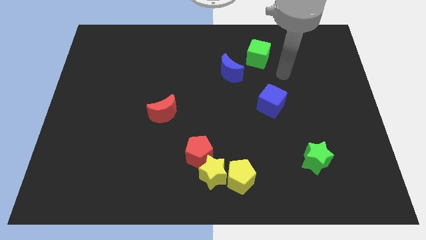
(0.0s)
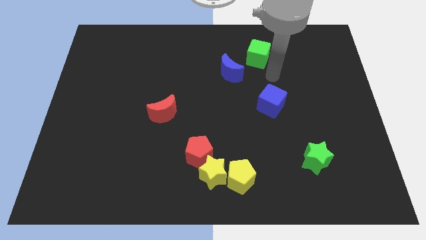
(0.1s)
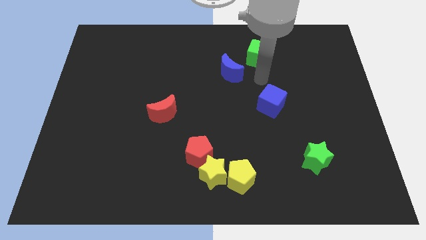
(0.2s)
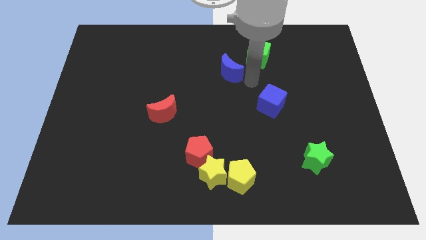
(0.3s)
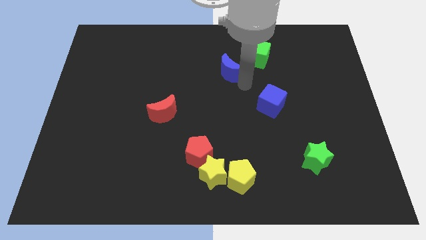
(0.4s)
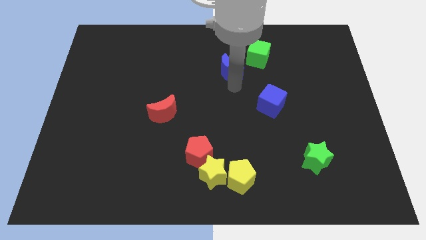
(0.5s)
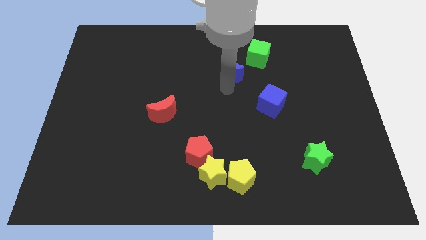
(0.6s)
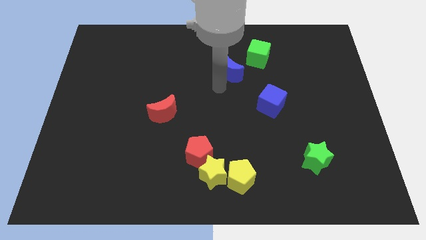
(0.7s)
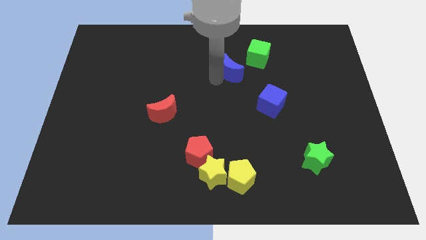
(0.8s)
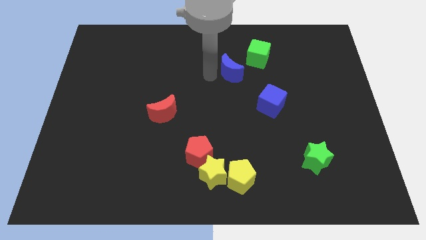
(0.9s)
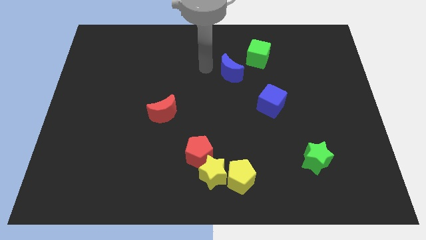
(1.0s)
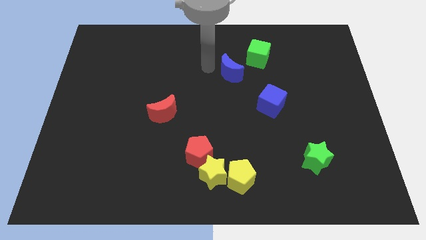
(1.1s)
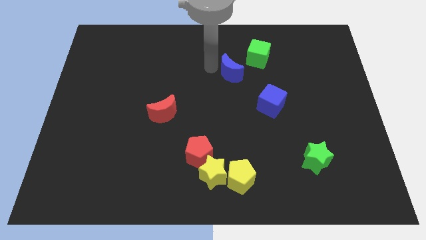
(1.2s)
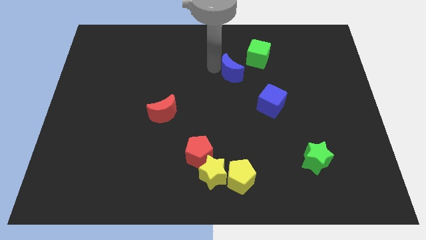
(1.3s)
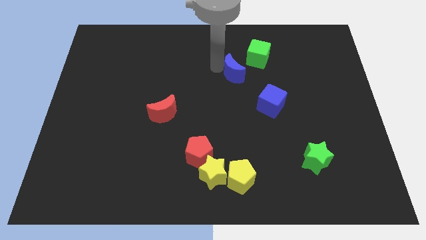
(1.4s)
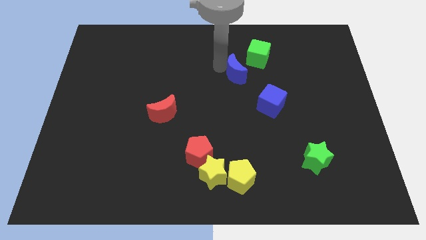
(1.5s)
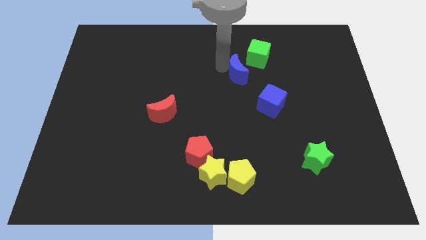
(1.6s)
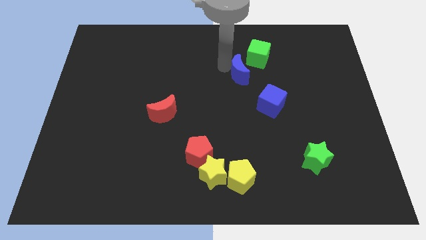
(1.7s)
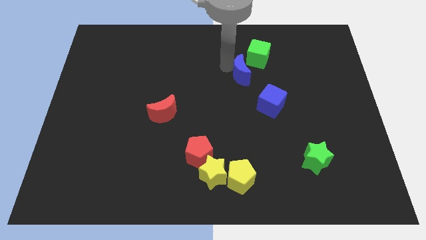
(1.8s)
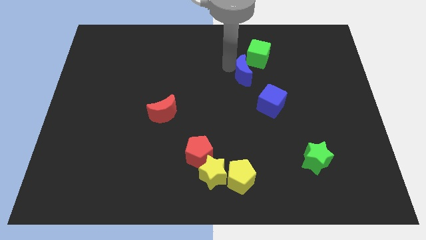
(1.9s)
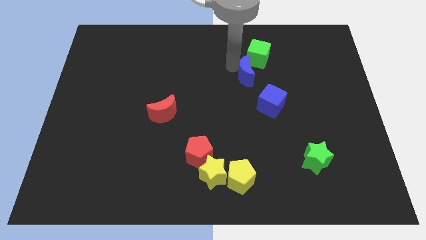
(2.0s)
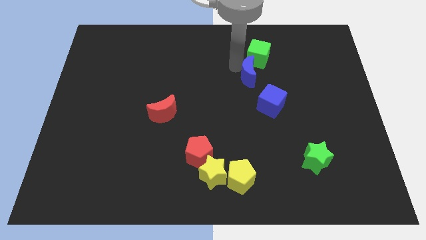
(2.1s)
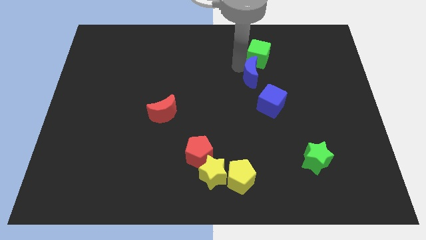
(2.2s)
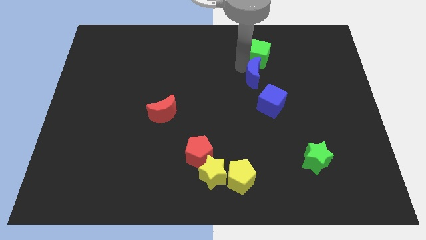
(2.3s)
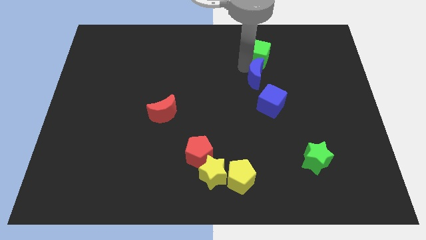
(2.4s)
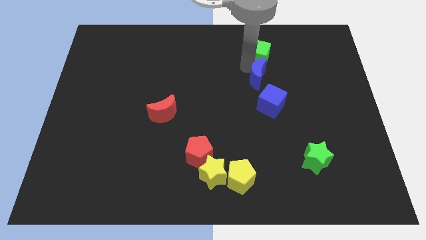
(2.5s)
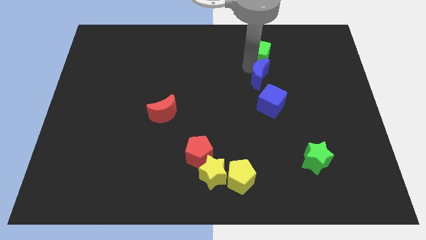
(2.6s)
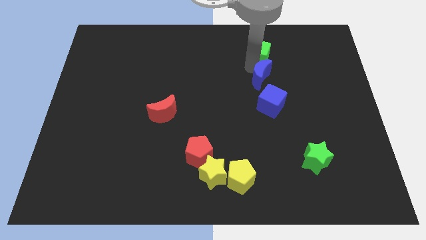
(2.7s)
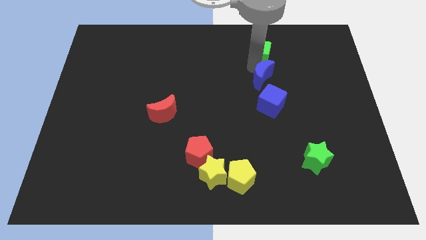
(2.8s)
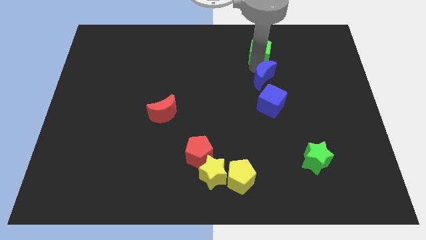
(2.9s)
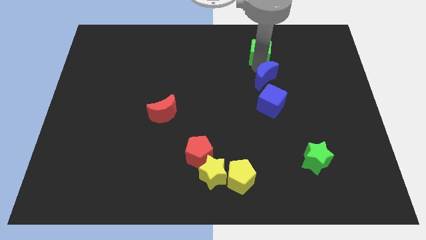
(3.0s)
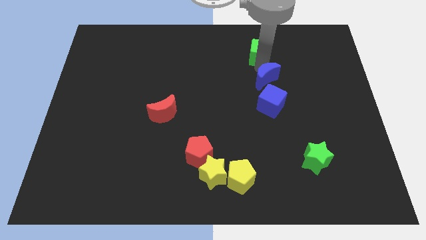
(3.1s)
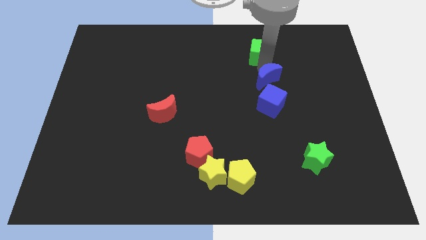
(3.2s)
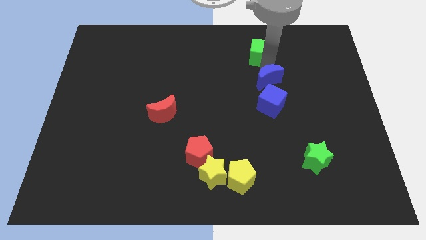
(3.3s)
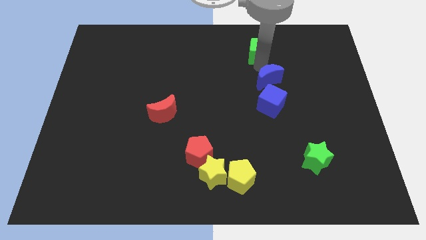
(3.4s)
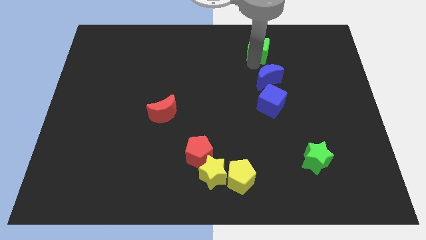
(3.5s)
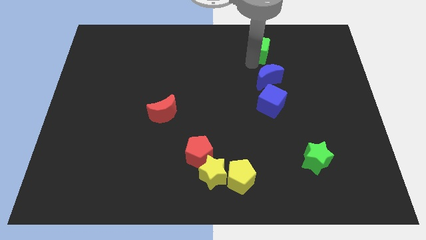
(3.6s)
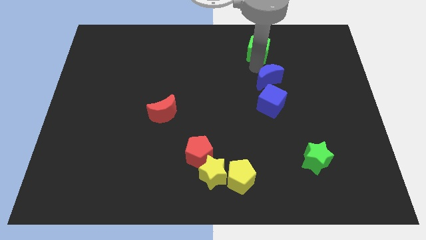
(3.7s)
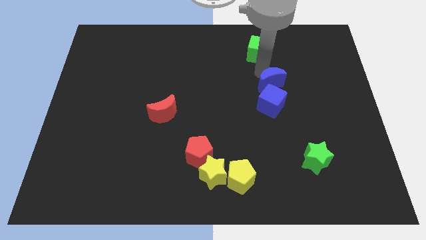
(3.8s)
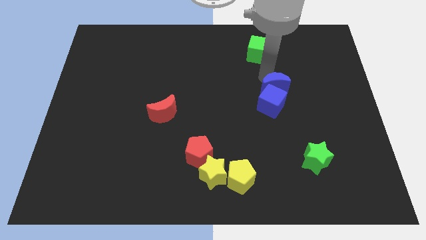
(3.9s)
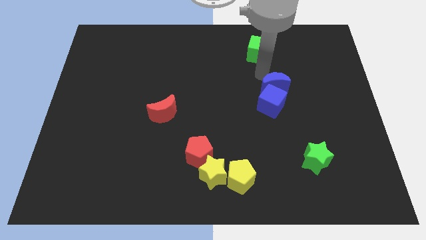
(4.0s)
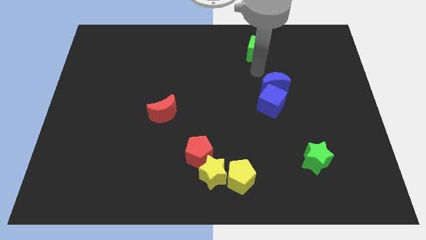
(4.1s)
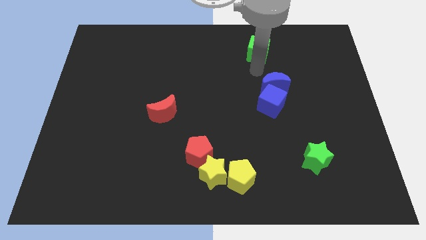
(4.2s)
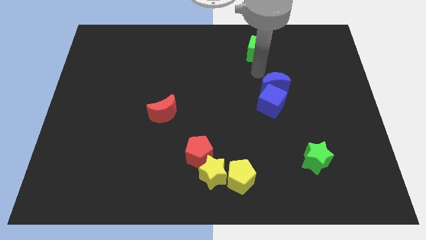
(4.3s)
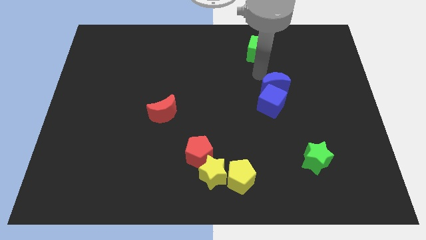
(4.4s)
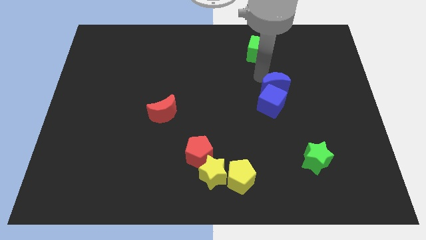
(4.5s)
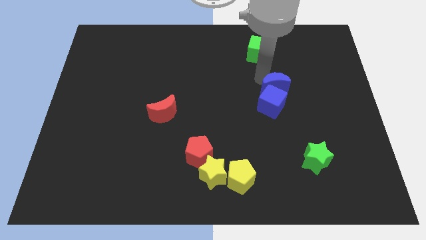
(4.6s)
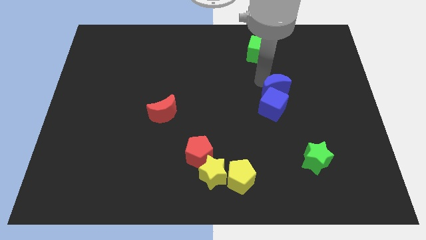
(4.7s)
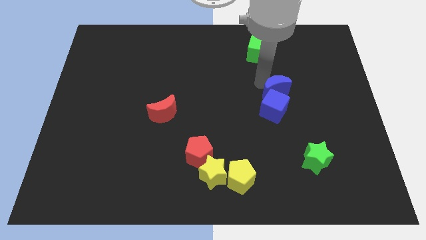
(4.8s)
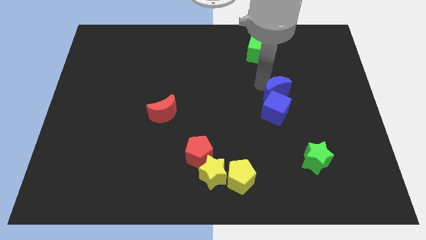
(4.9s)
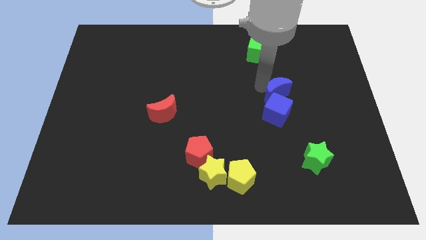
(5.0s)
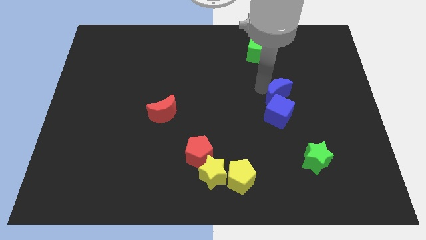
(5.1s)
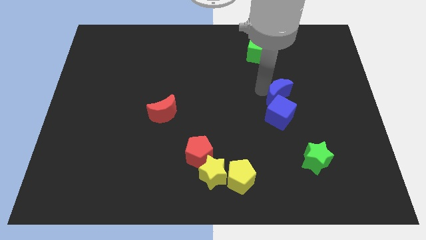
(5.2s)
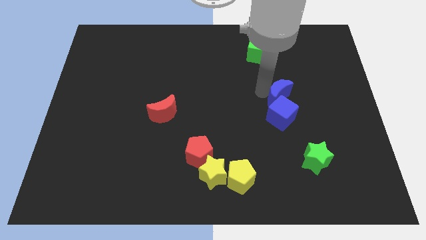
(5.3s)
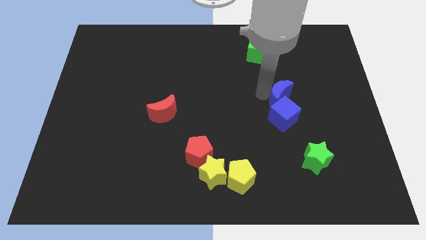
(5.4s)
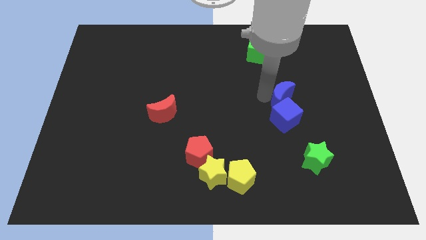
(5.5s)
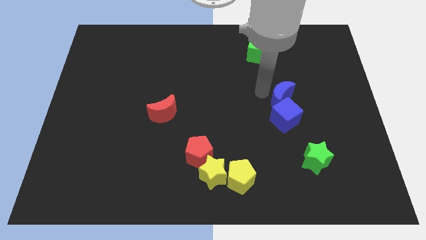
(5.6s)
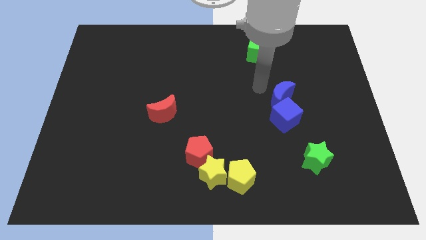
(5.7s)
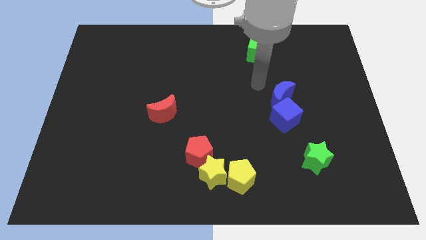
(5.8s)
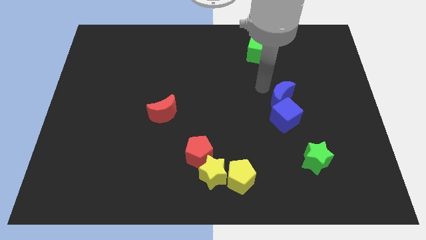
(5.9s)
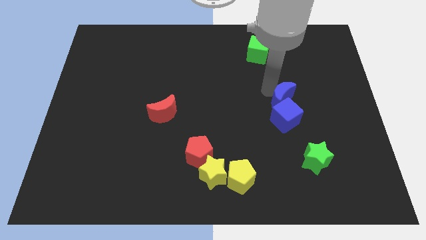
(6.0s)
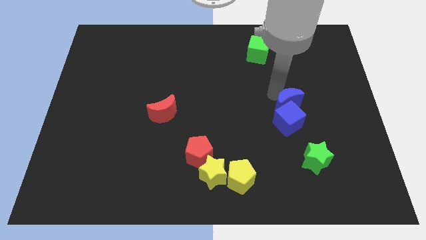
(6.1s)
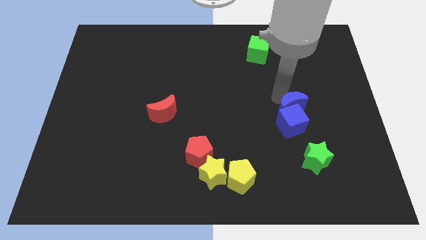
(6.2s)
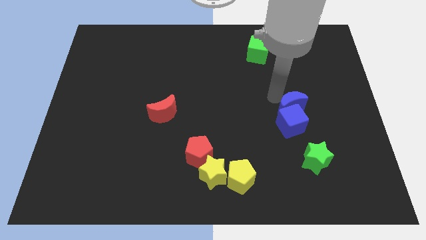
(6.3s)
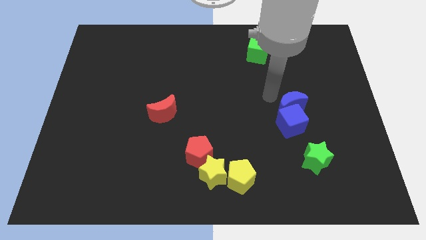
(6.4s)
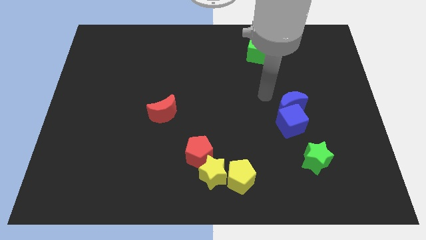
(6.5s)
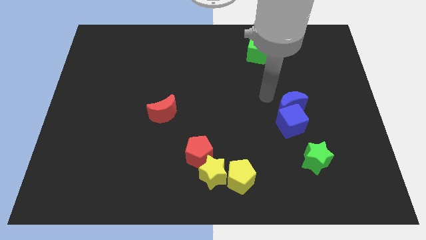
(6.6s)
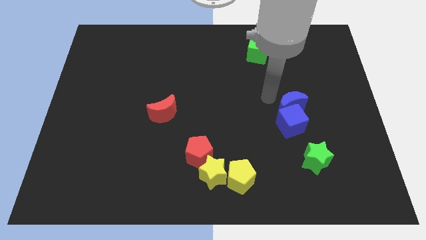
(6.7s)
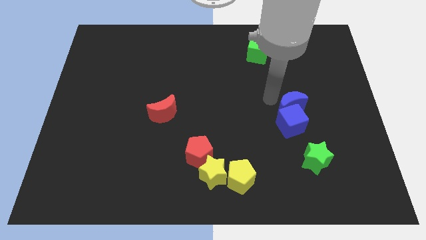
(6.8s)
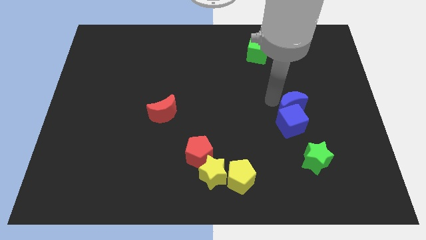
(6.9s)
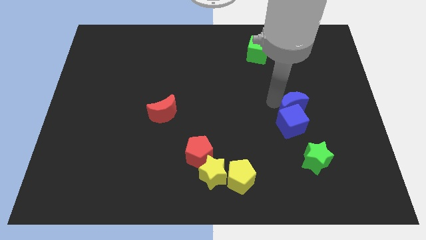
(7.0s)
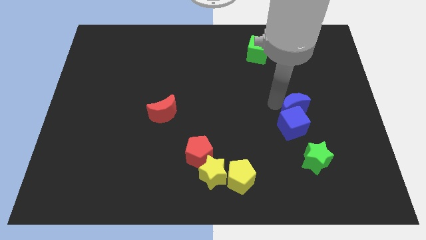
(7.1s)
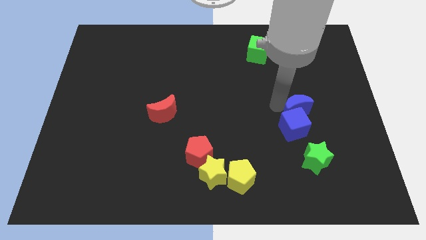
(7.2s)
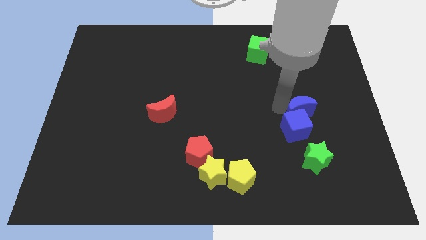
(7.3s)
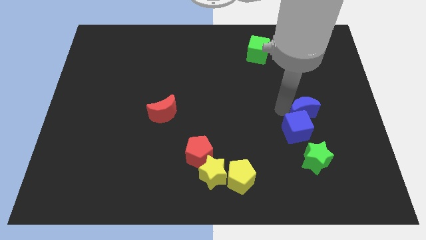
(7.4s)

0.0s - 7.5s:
slide the blue moon downwards and to the right

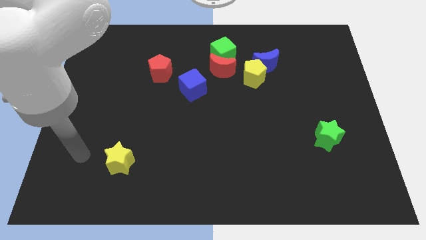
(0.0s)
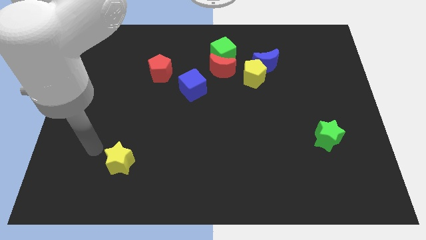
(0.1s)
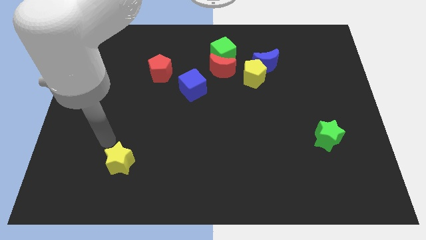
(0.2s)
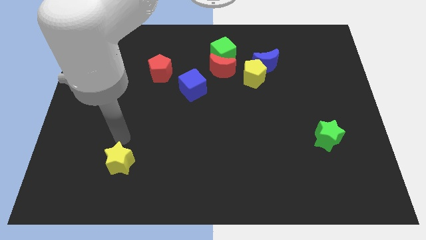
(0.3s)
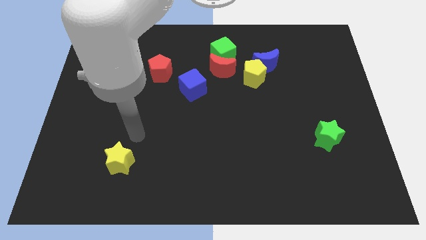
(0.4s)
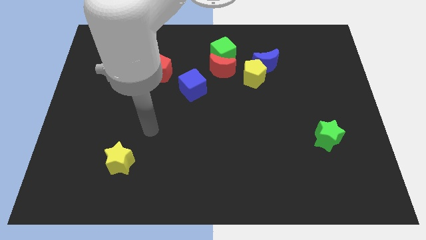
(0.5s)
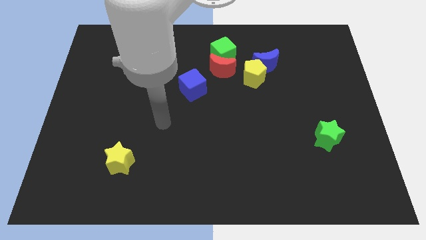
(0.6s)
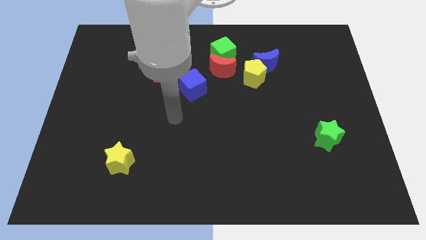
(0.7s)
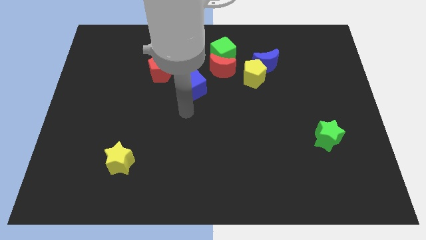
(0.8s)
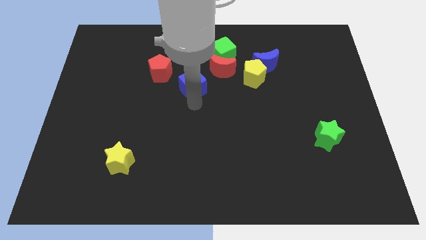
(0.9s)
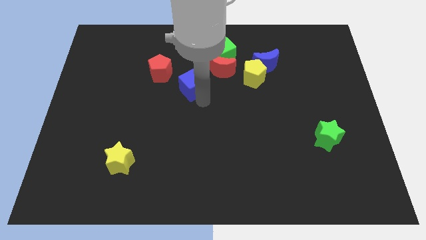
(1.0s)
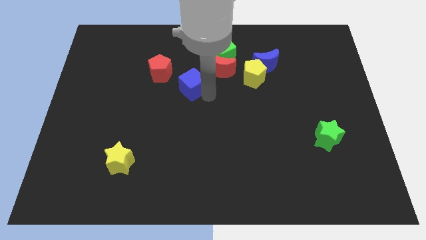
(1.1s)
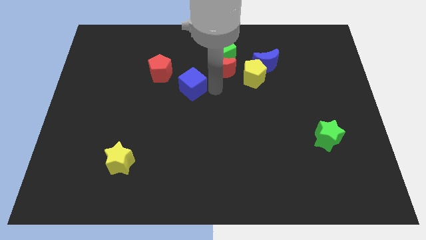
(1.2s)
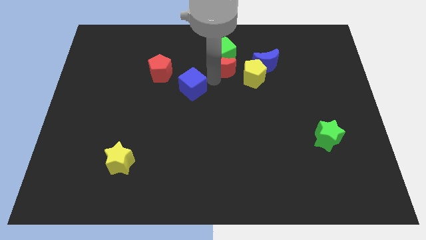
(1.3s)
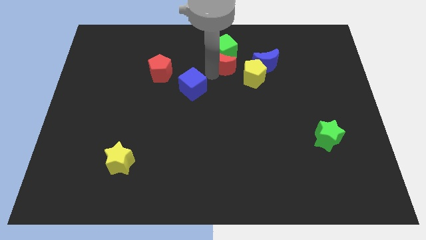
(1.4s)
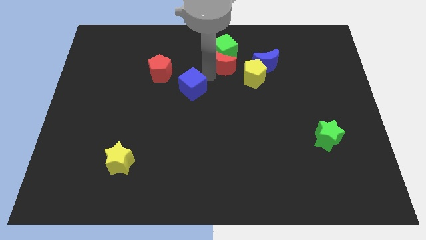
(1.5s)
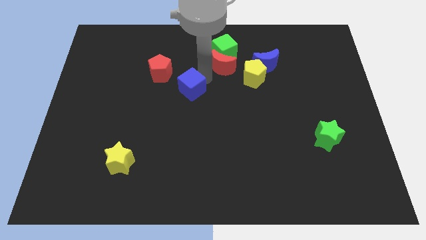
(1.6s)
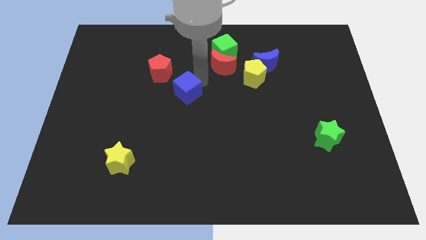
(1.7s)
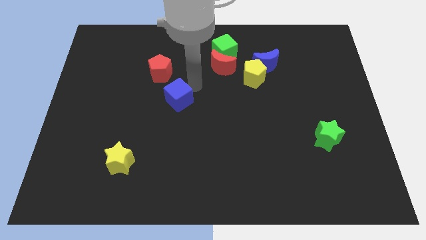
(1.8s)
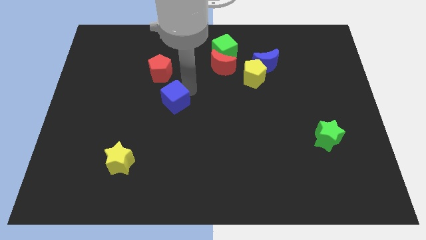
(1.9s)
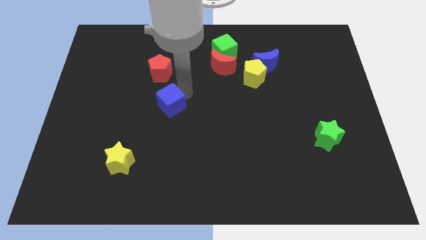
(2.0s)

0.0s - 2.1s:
slide the blue cube slightly down and to the left diagonally
